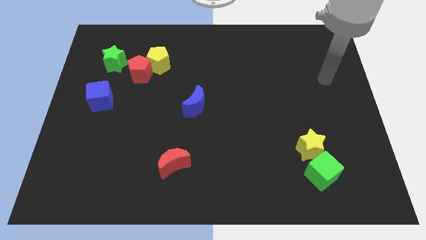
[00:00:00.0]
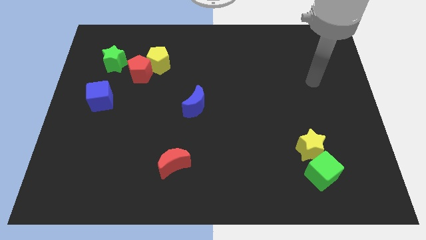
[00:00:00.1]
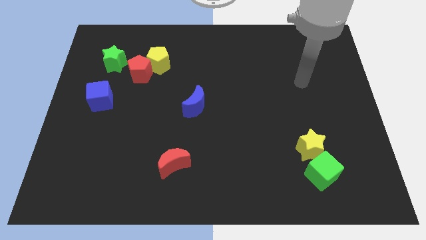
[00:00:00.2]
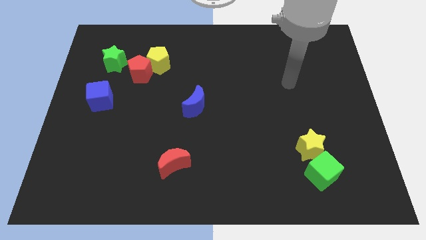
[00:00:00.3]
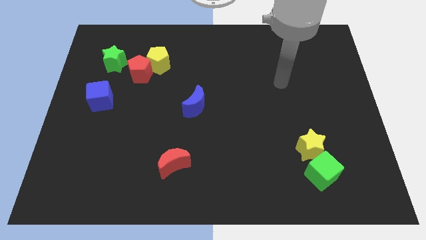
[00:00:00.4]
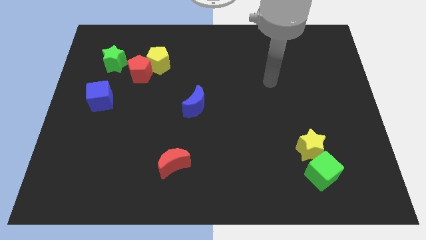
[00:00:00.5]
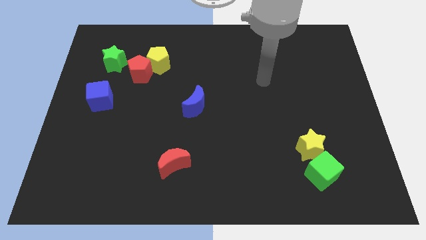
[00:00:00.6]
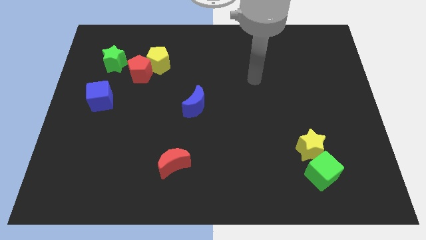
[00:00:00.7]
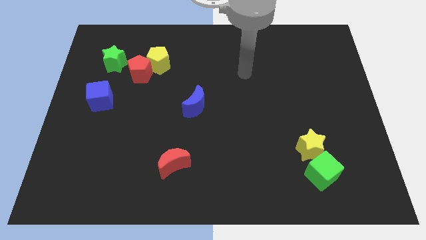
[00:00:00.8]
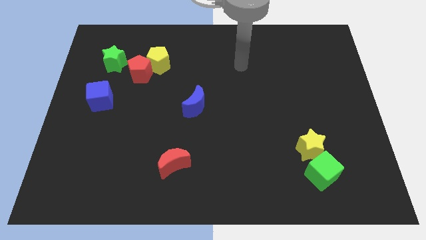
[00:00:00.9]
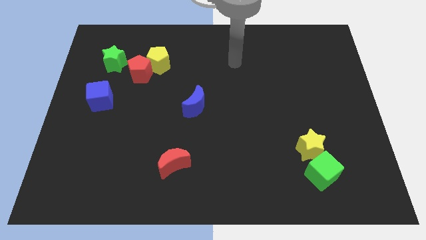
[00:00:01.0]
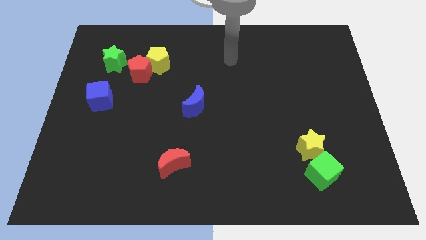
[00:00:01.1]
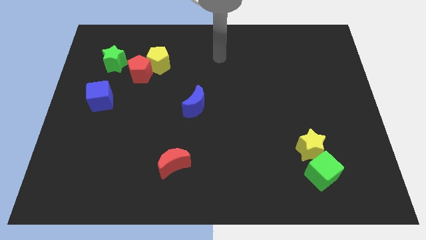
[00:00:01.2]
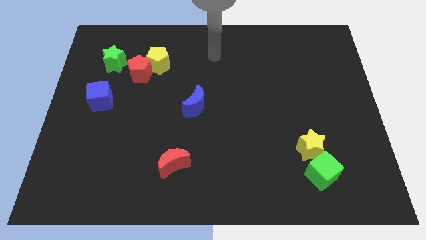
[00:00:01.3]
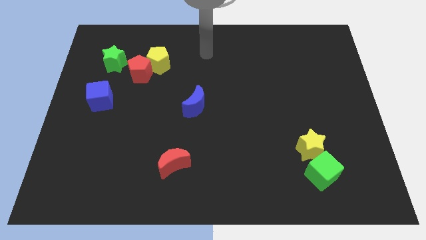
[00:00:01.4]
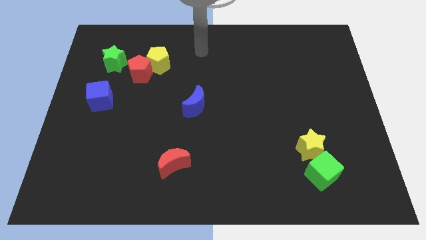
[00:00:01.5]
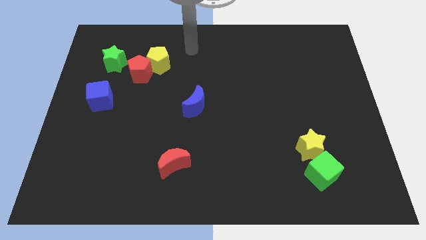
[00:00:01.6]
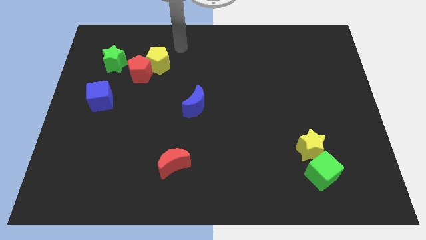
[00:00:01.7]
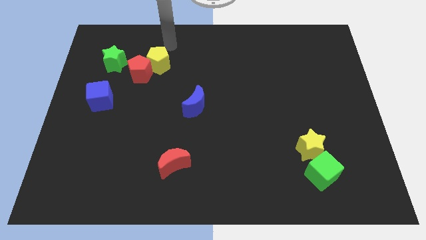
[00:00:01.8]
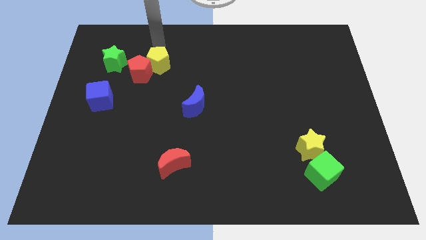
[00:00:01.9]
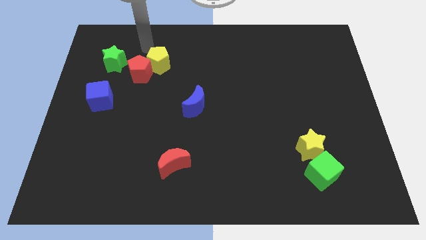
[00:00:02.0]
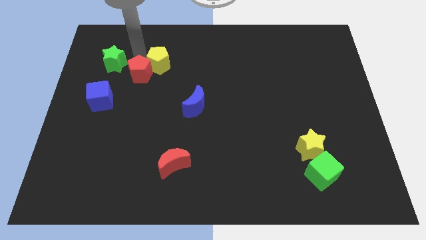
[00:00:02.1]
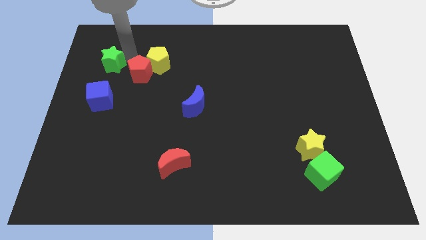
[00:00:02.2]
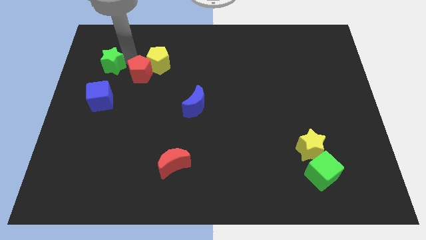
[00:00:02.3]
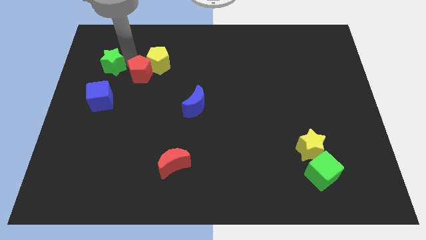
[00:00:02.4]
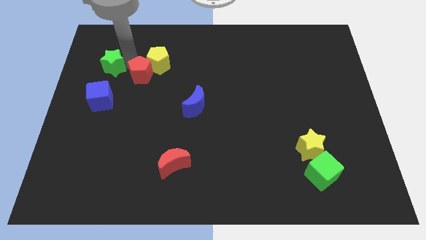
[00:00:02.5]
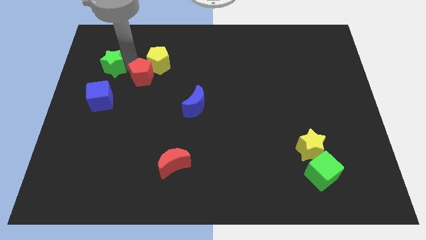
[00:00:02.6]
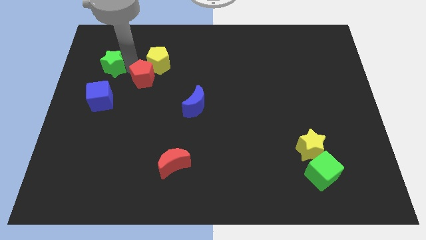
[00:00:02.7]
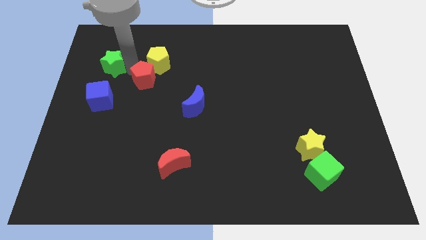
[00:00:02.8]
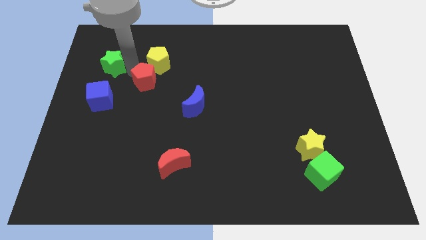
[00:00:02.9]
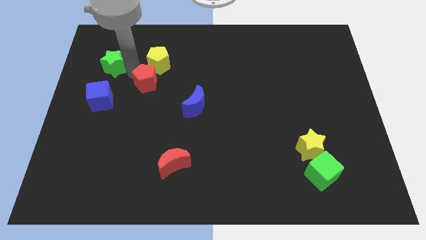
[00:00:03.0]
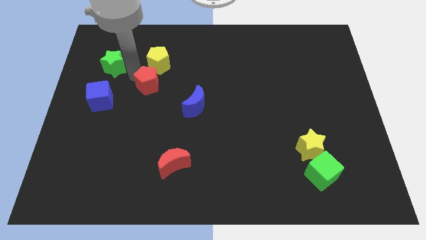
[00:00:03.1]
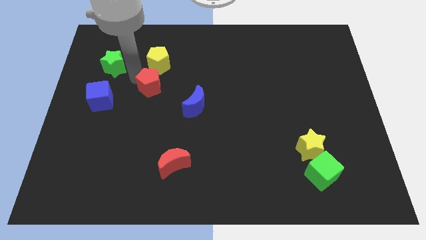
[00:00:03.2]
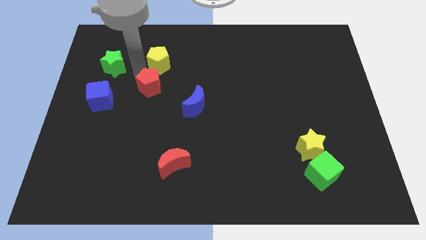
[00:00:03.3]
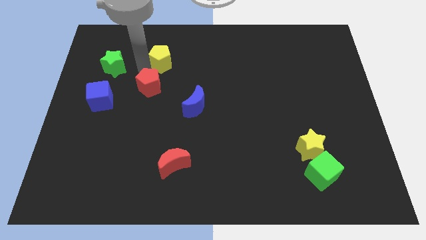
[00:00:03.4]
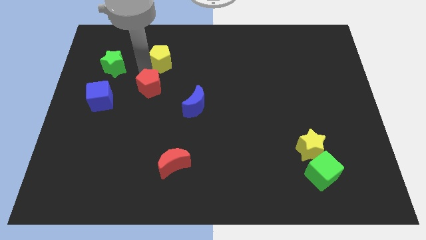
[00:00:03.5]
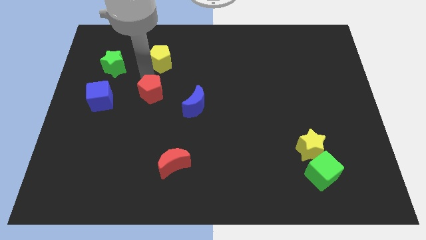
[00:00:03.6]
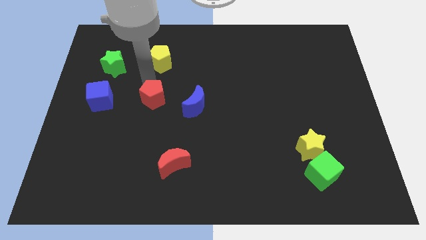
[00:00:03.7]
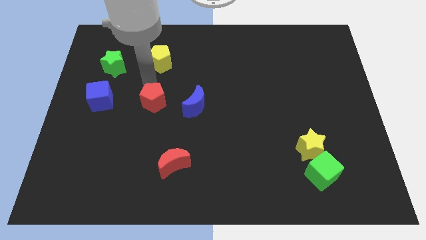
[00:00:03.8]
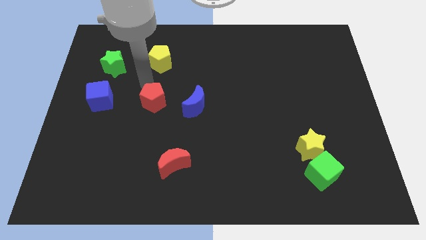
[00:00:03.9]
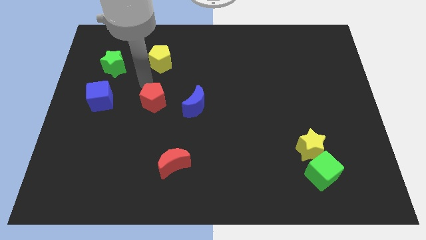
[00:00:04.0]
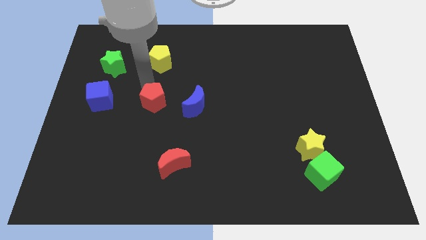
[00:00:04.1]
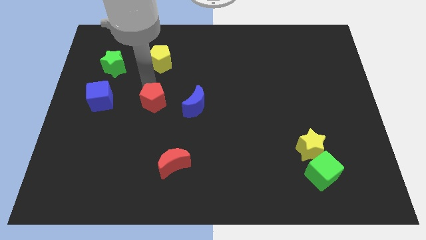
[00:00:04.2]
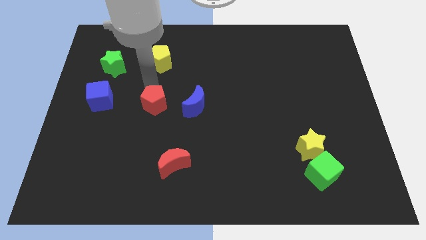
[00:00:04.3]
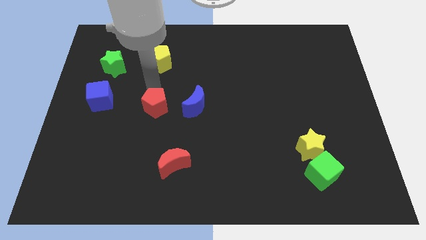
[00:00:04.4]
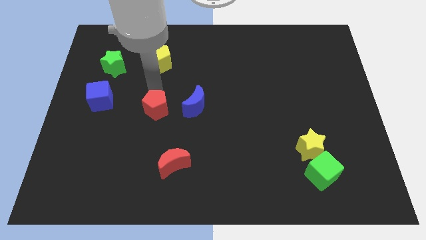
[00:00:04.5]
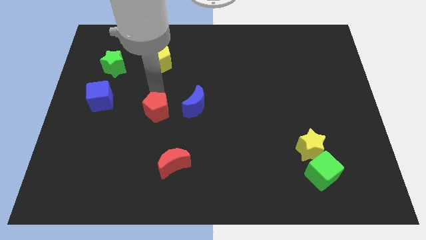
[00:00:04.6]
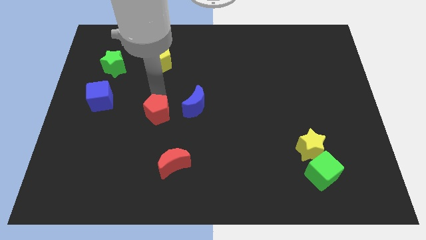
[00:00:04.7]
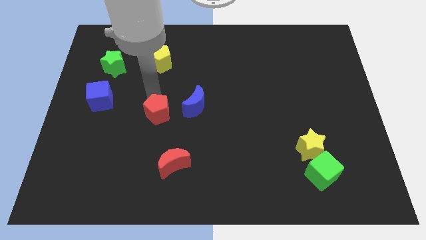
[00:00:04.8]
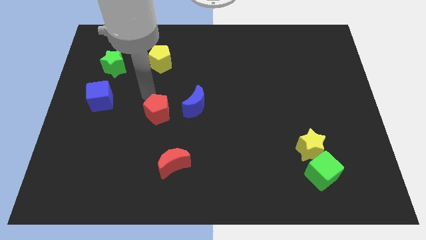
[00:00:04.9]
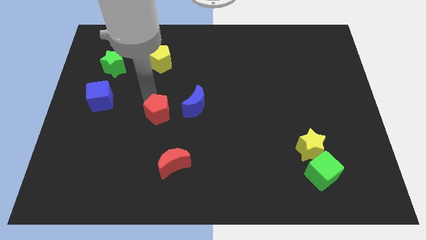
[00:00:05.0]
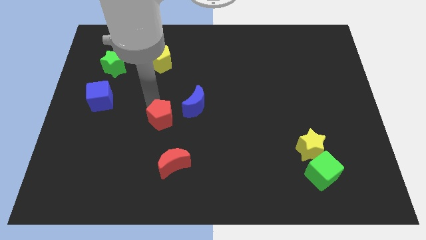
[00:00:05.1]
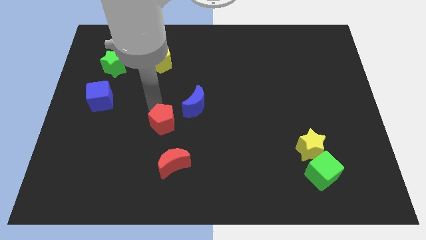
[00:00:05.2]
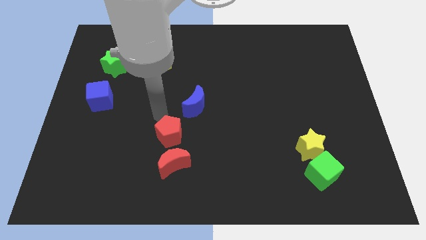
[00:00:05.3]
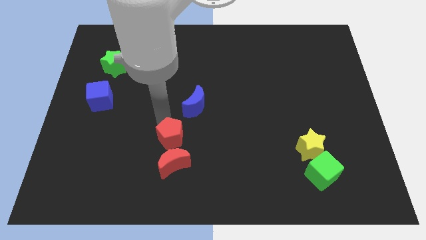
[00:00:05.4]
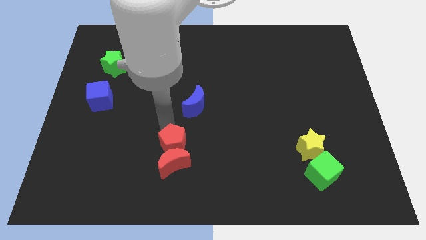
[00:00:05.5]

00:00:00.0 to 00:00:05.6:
slide the red pentagon close to the red moon

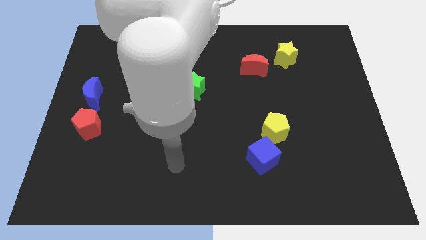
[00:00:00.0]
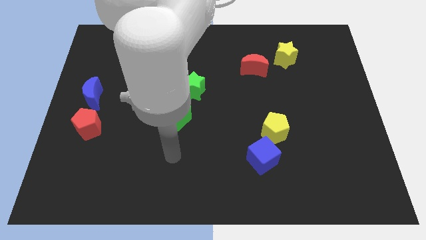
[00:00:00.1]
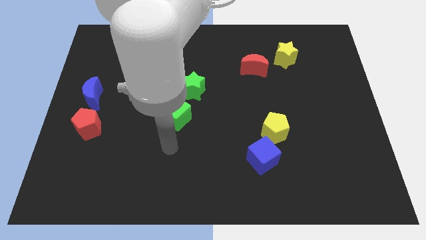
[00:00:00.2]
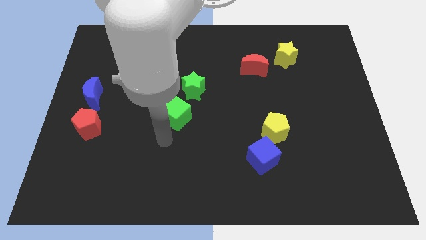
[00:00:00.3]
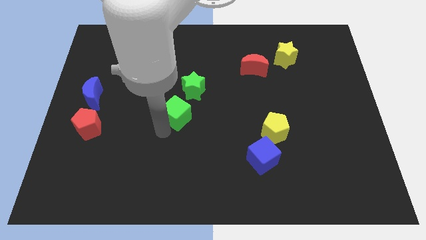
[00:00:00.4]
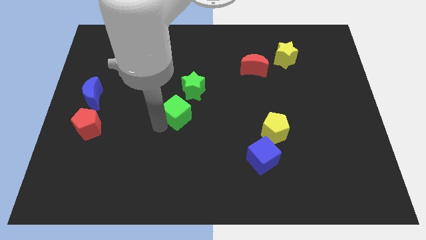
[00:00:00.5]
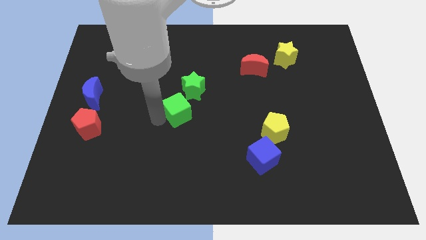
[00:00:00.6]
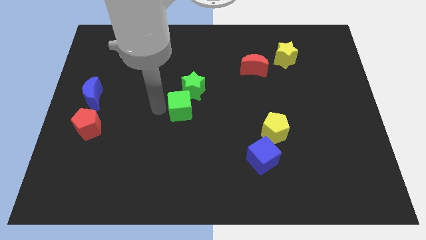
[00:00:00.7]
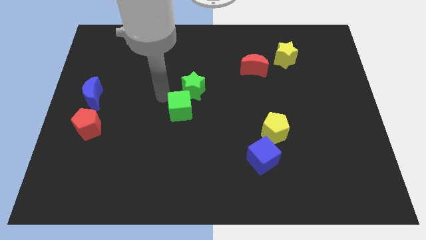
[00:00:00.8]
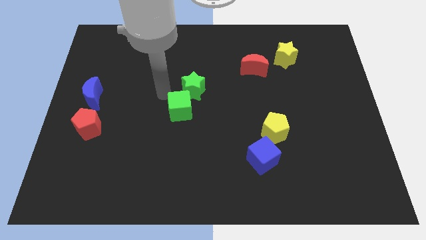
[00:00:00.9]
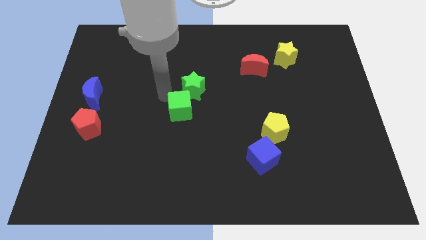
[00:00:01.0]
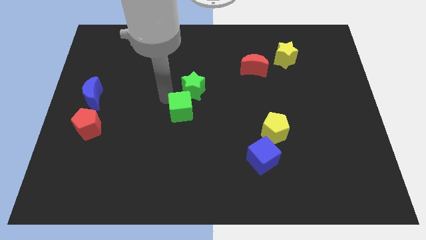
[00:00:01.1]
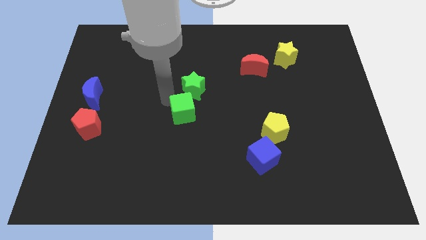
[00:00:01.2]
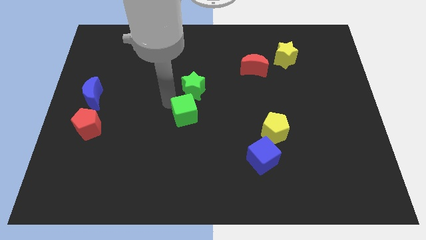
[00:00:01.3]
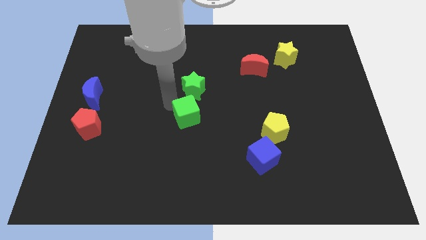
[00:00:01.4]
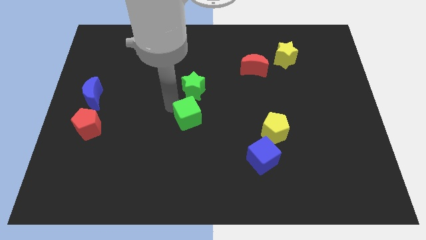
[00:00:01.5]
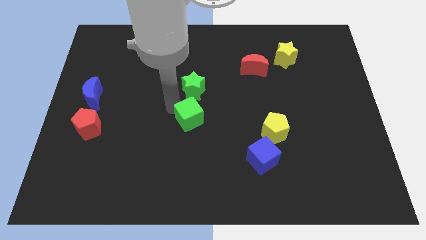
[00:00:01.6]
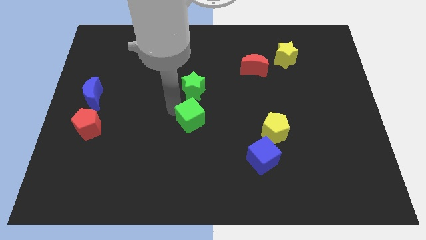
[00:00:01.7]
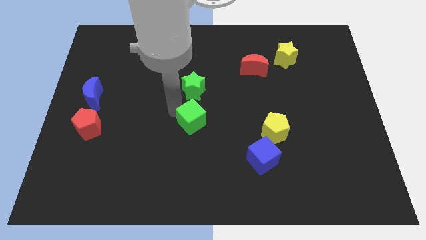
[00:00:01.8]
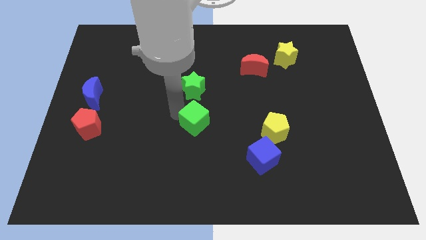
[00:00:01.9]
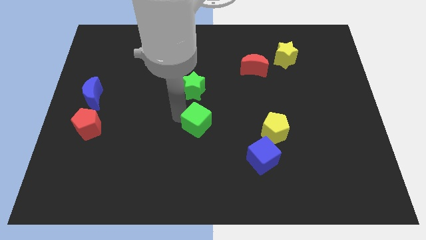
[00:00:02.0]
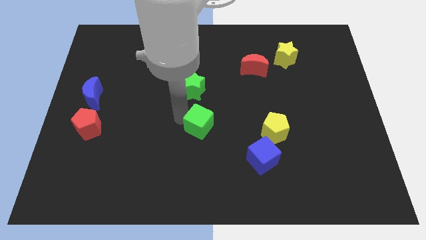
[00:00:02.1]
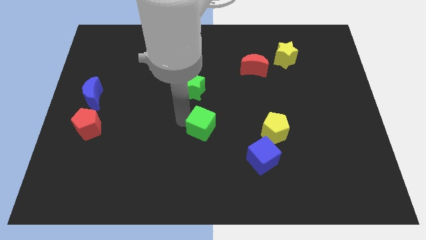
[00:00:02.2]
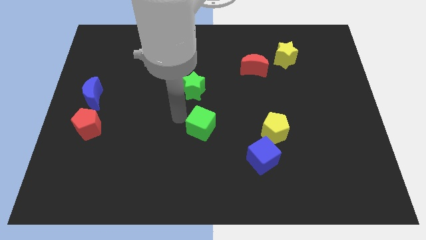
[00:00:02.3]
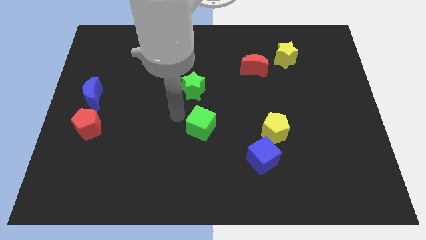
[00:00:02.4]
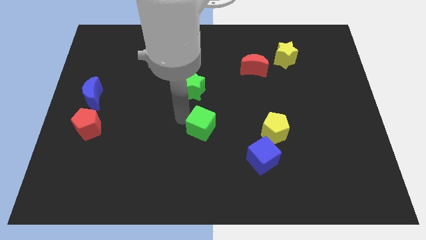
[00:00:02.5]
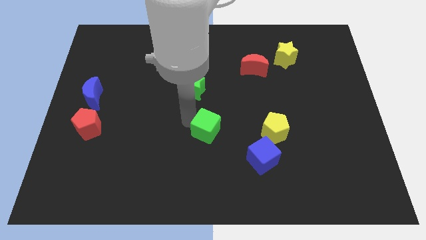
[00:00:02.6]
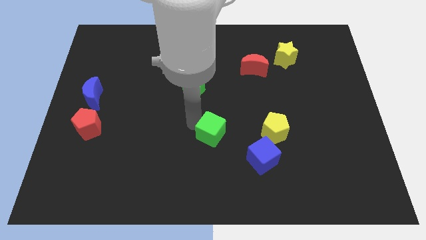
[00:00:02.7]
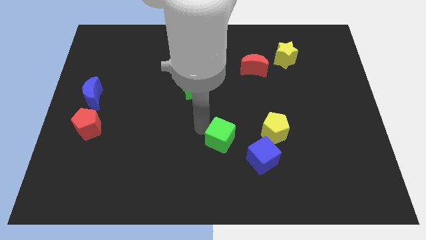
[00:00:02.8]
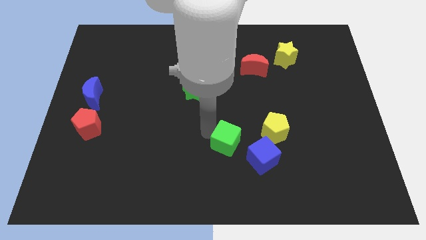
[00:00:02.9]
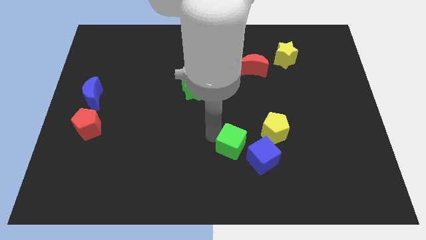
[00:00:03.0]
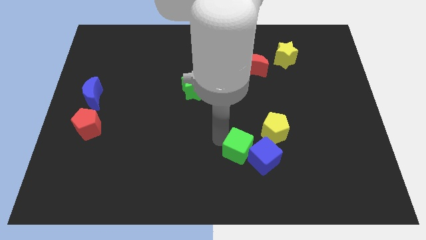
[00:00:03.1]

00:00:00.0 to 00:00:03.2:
put the green cube next to the blue cube
